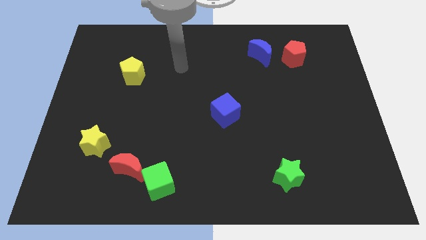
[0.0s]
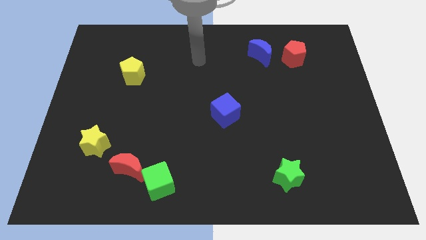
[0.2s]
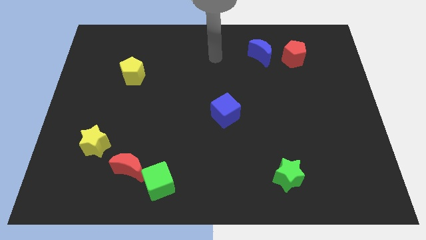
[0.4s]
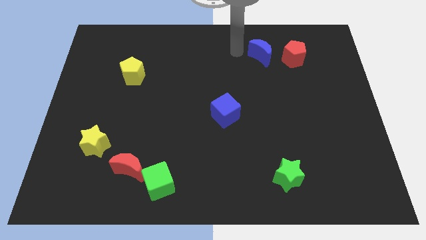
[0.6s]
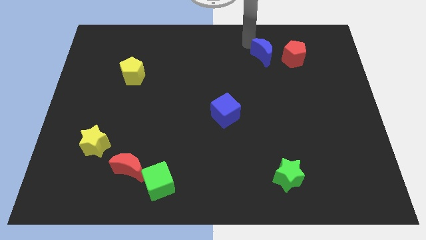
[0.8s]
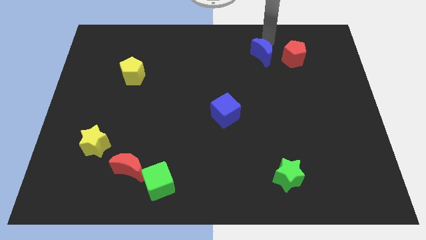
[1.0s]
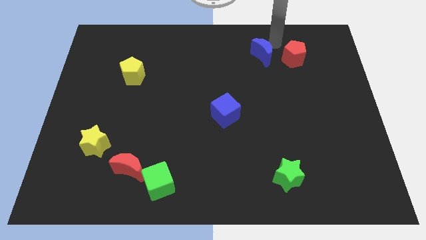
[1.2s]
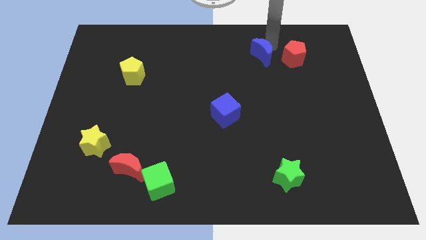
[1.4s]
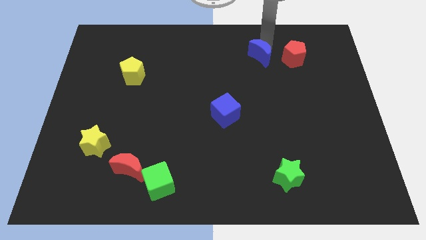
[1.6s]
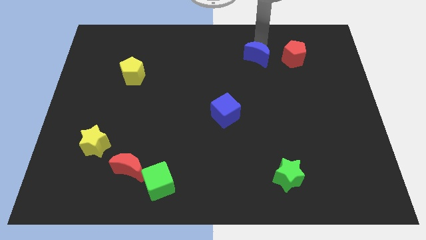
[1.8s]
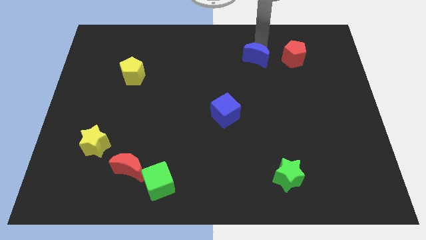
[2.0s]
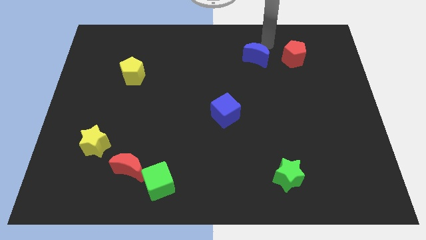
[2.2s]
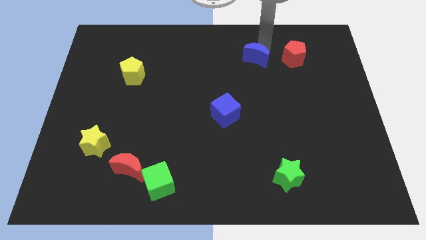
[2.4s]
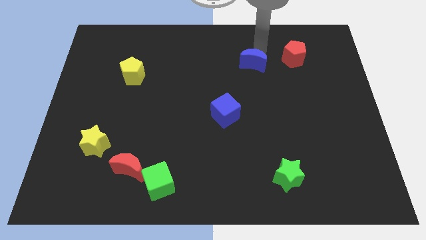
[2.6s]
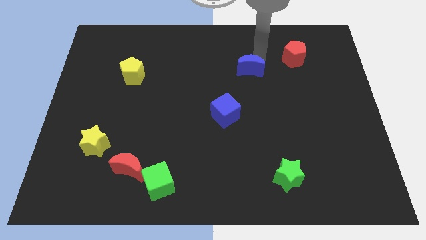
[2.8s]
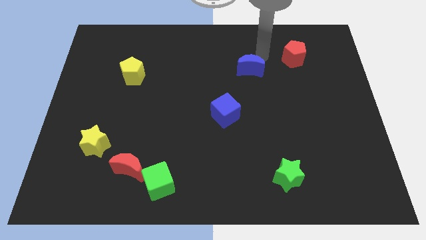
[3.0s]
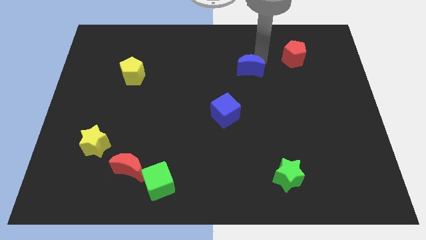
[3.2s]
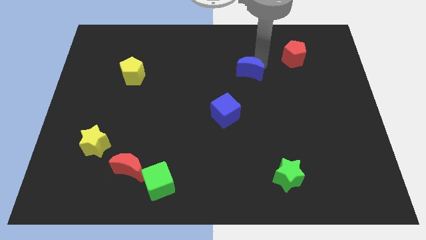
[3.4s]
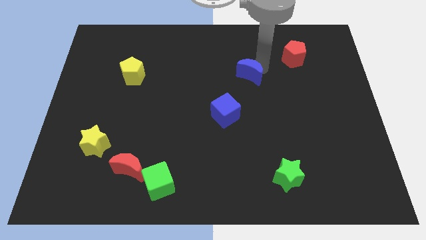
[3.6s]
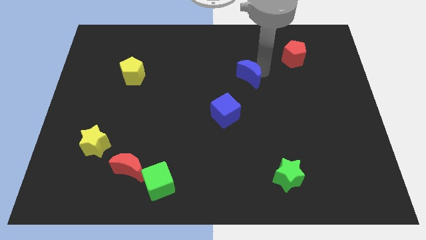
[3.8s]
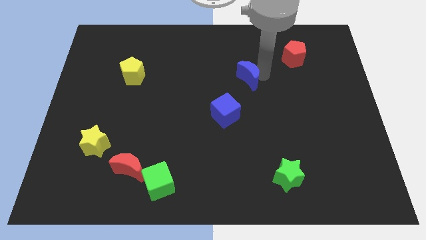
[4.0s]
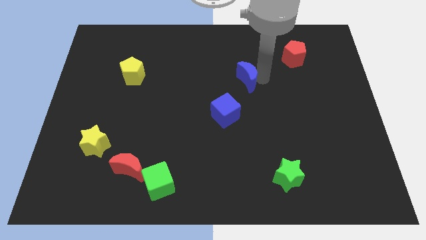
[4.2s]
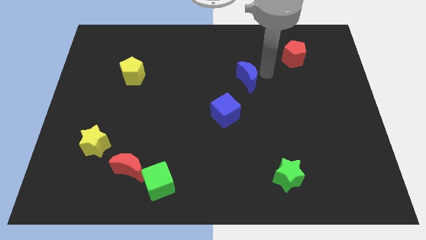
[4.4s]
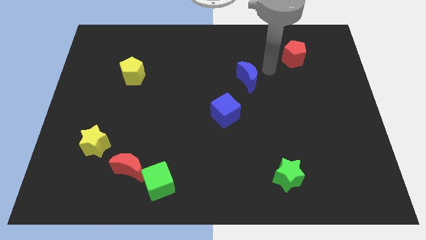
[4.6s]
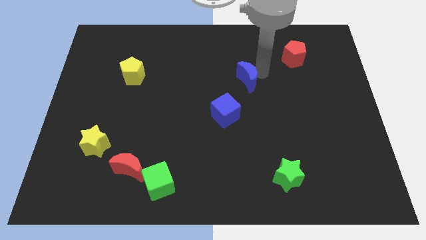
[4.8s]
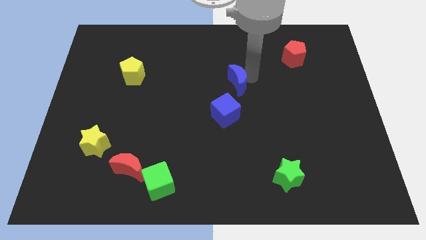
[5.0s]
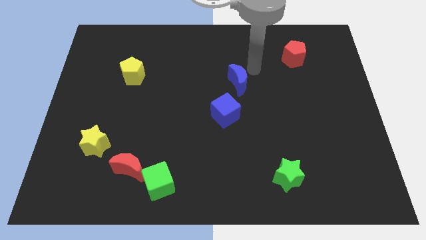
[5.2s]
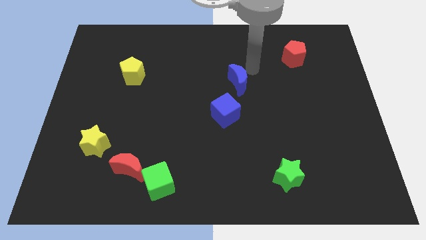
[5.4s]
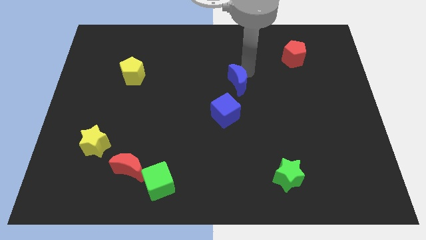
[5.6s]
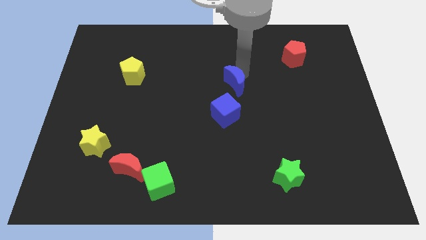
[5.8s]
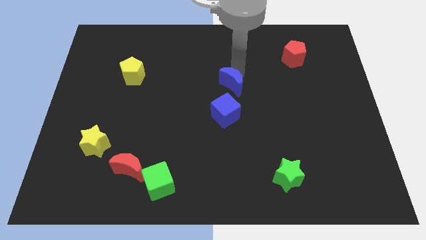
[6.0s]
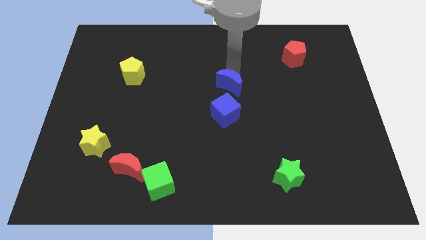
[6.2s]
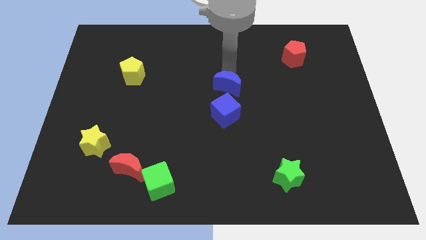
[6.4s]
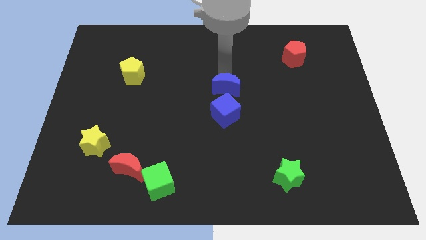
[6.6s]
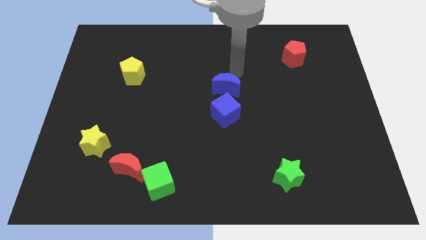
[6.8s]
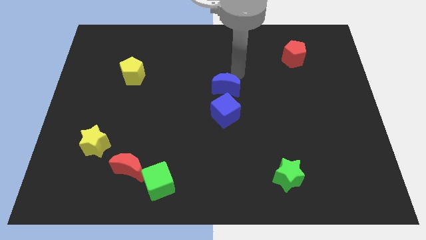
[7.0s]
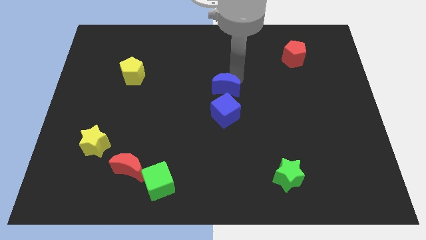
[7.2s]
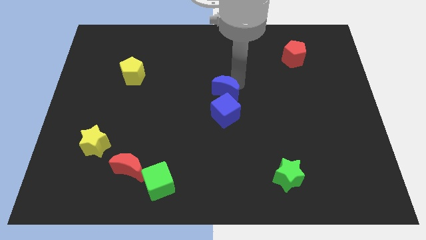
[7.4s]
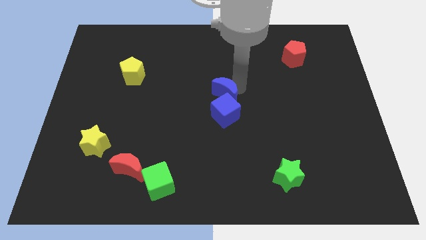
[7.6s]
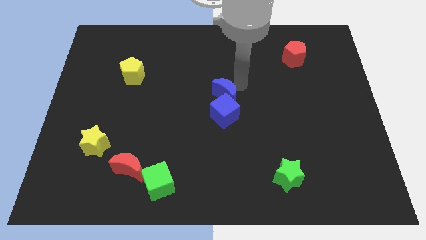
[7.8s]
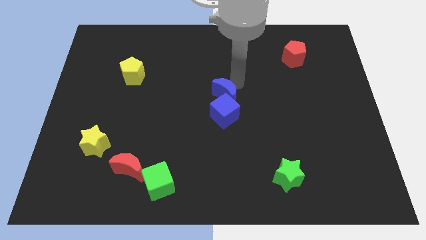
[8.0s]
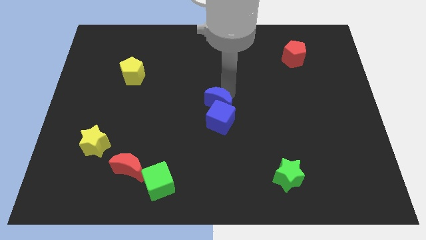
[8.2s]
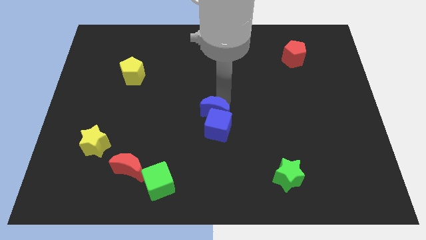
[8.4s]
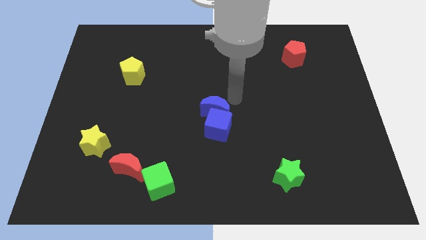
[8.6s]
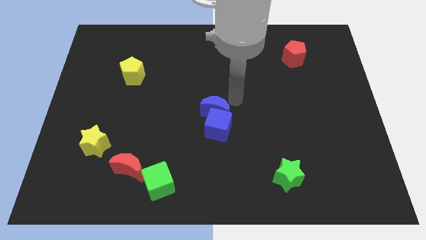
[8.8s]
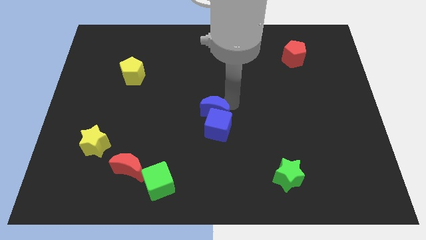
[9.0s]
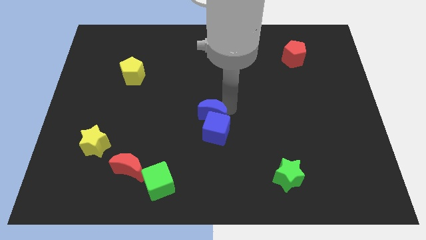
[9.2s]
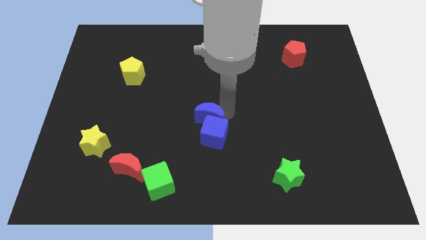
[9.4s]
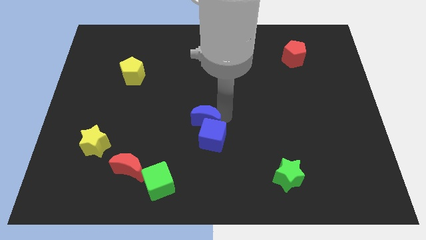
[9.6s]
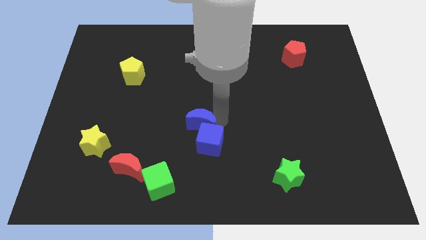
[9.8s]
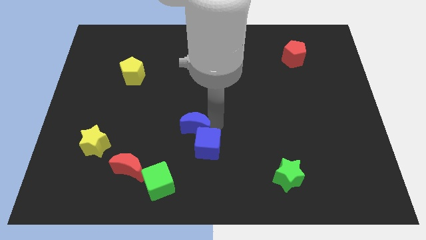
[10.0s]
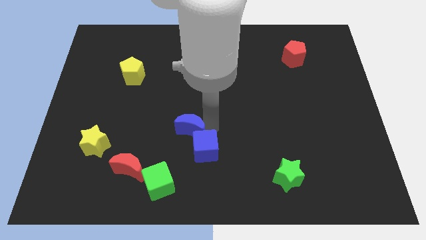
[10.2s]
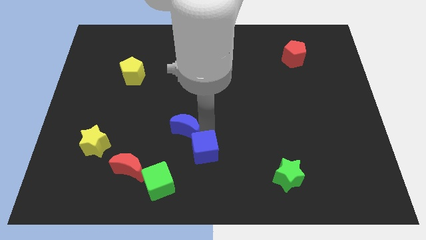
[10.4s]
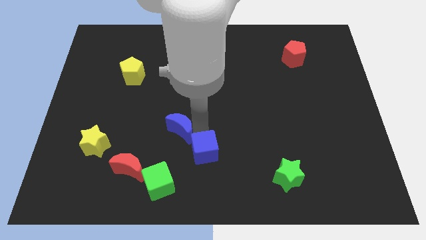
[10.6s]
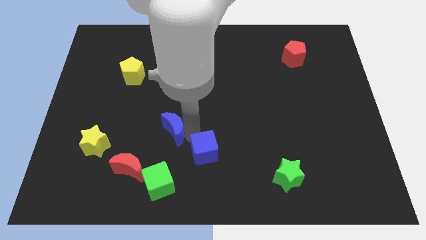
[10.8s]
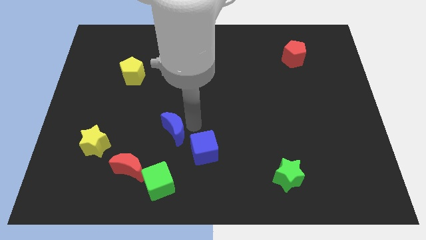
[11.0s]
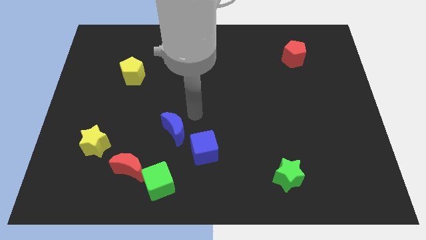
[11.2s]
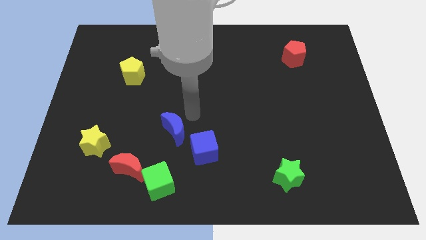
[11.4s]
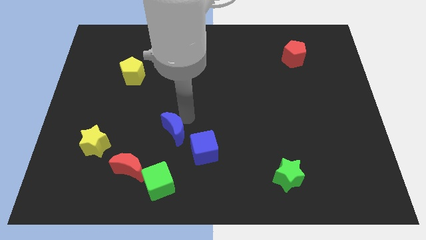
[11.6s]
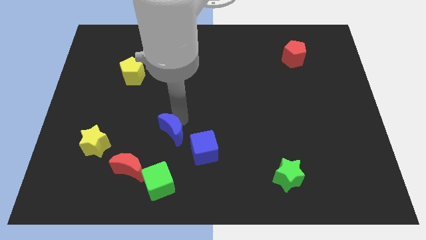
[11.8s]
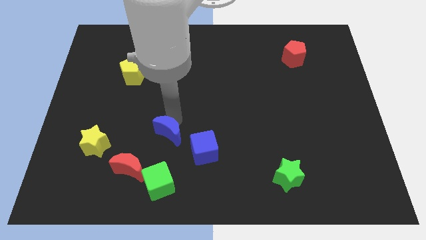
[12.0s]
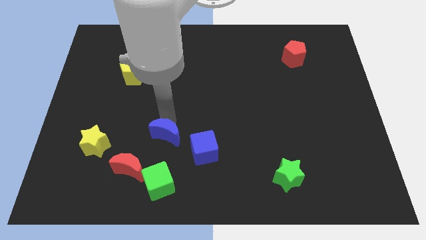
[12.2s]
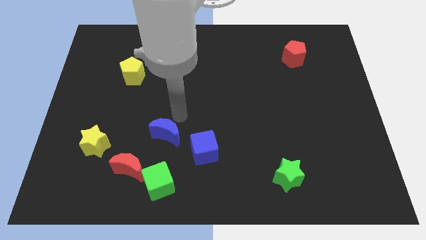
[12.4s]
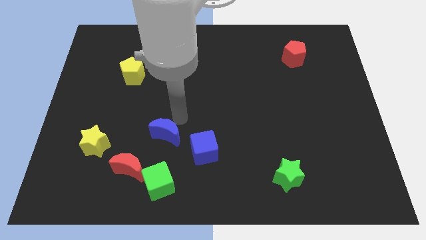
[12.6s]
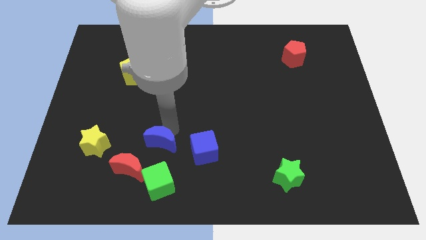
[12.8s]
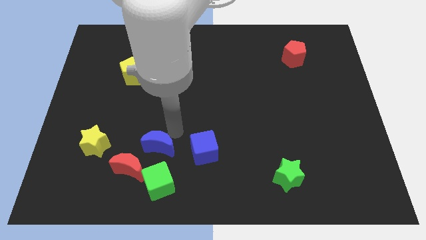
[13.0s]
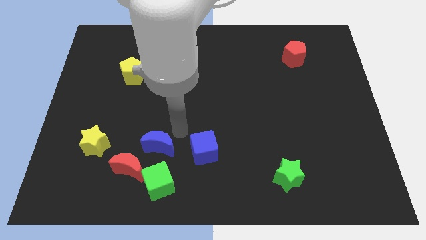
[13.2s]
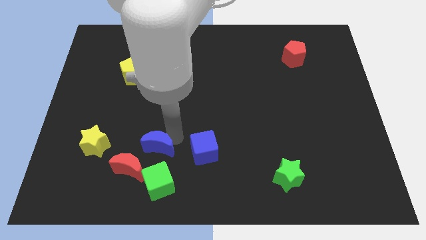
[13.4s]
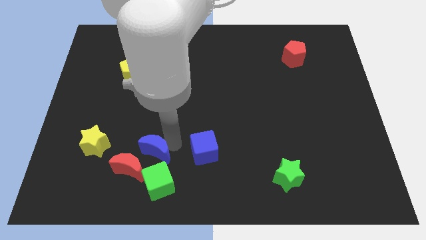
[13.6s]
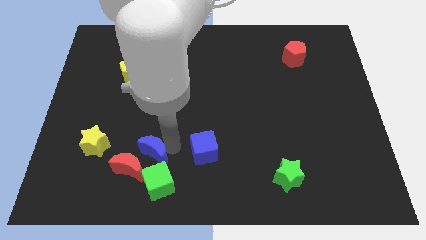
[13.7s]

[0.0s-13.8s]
push the blue moon to the red moon

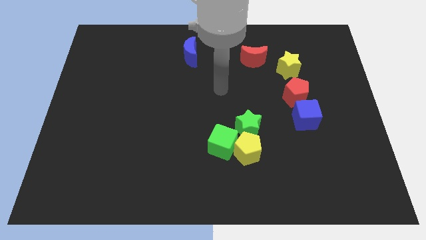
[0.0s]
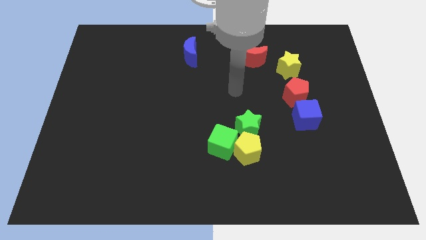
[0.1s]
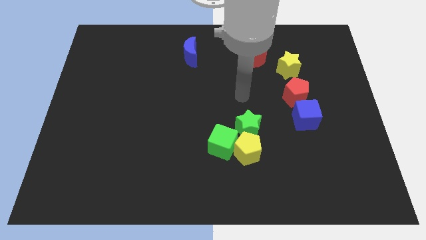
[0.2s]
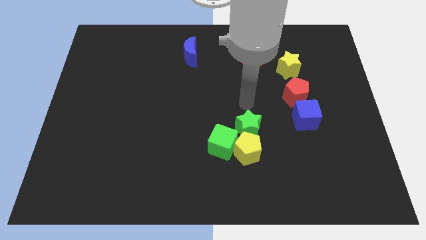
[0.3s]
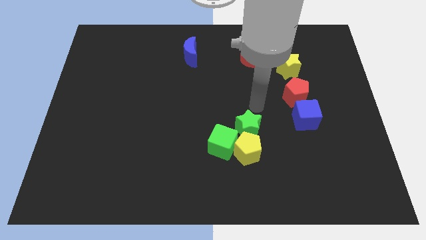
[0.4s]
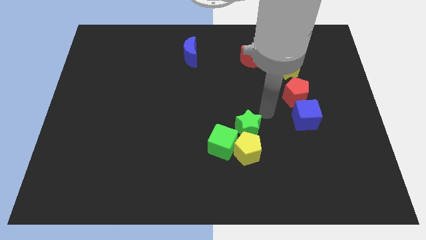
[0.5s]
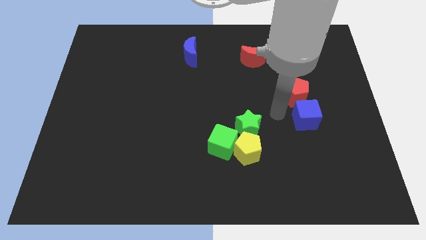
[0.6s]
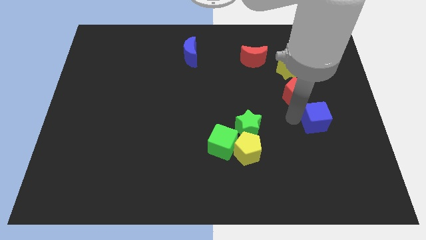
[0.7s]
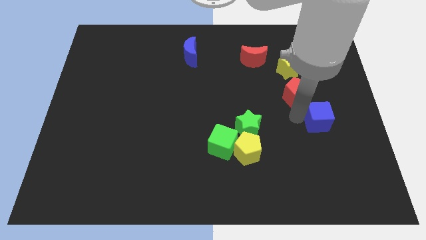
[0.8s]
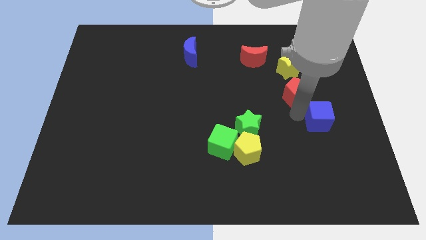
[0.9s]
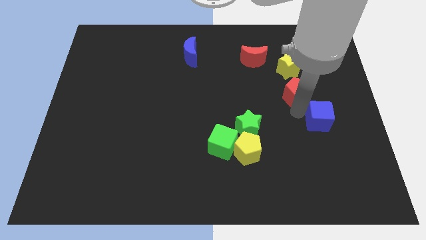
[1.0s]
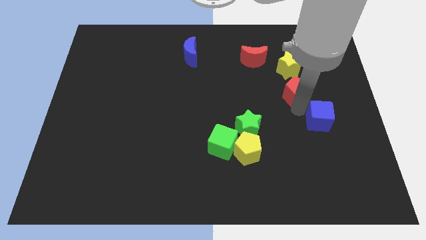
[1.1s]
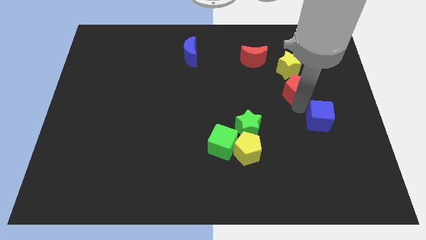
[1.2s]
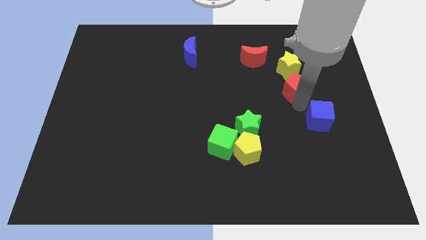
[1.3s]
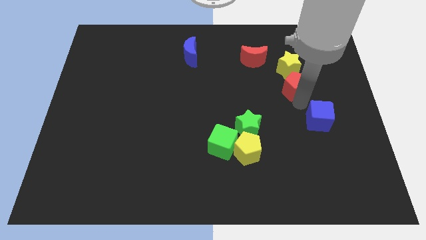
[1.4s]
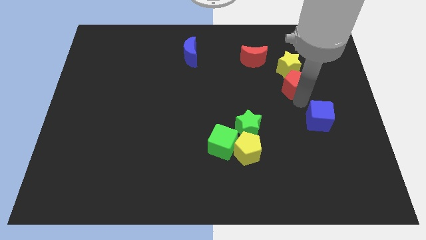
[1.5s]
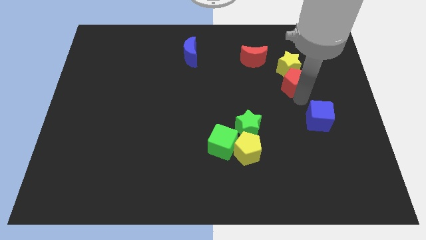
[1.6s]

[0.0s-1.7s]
slide the red pentagon to the yellow star
